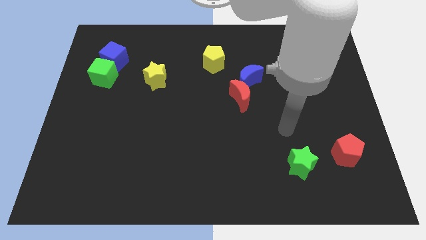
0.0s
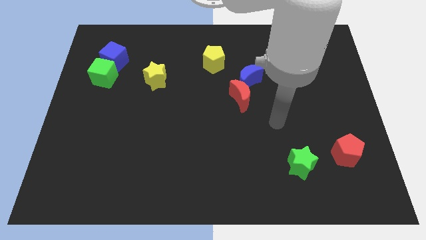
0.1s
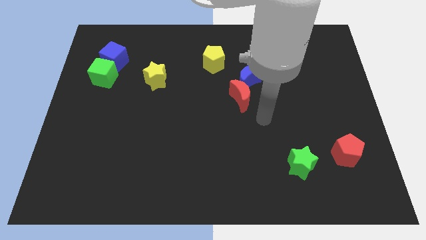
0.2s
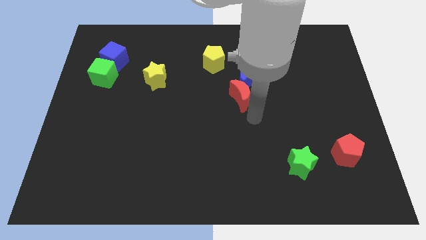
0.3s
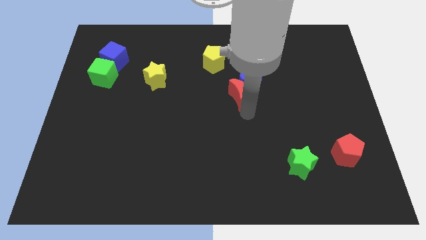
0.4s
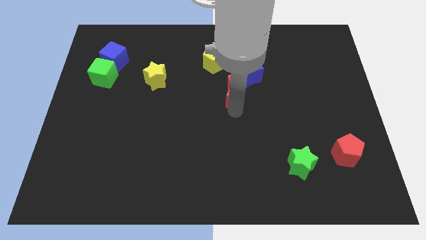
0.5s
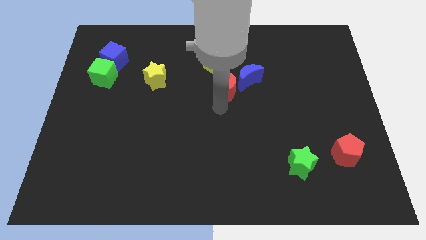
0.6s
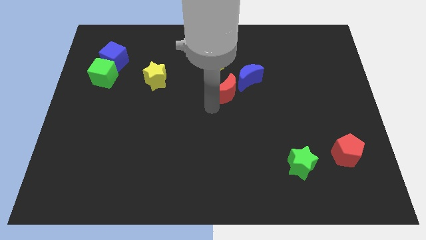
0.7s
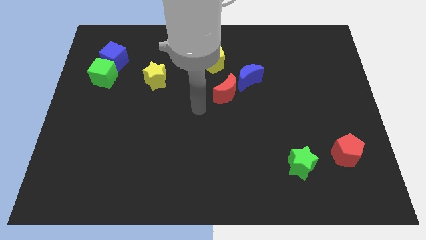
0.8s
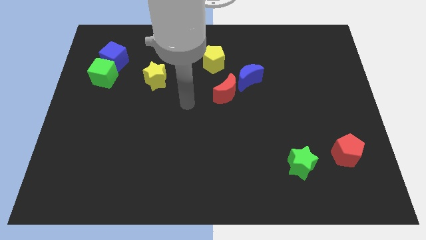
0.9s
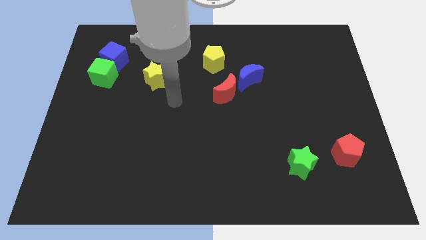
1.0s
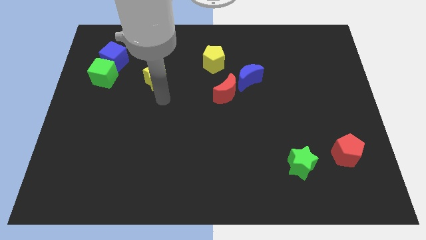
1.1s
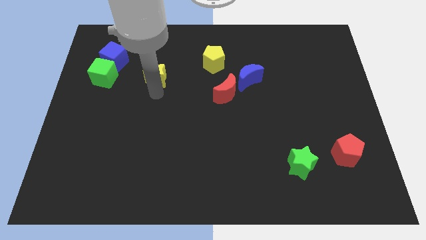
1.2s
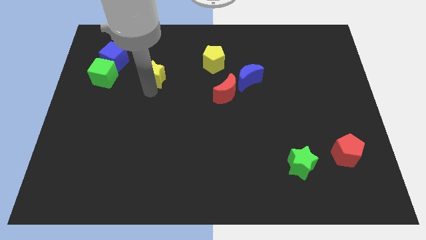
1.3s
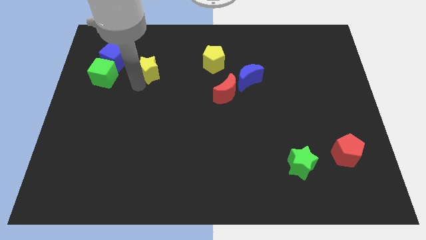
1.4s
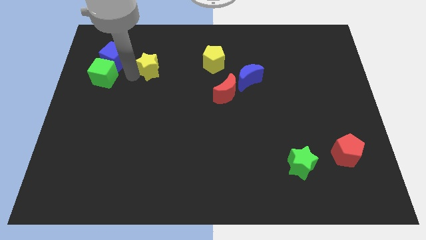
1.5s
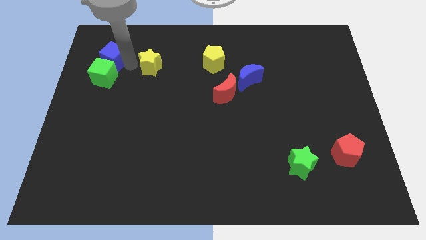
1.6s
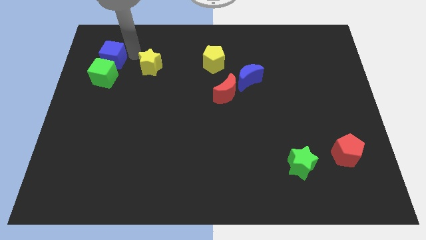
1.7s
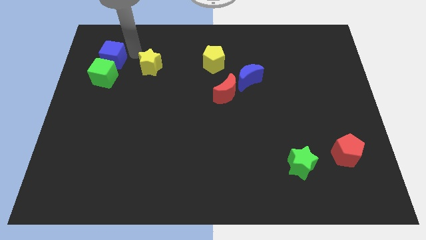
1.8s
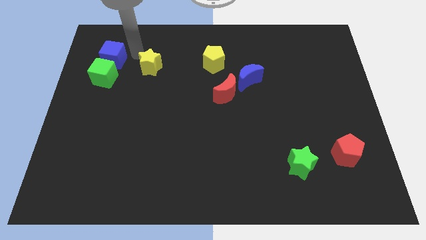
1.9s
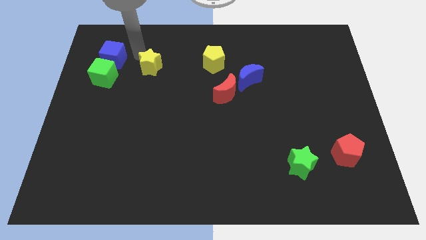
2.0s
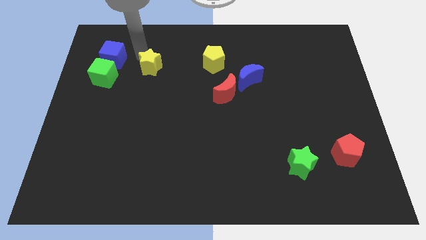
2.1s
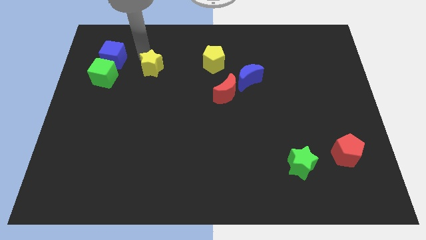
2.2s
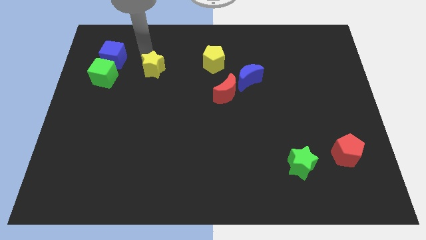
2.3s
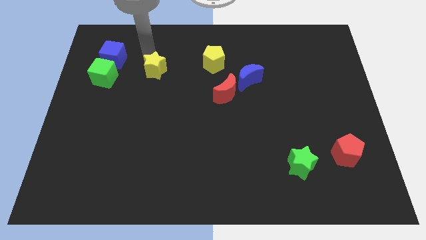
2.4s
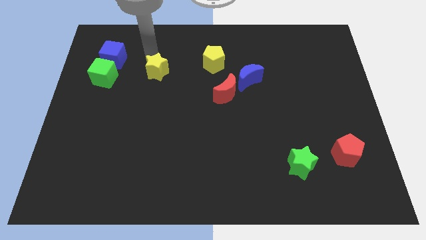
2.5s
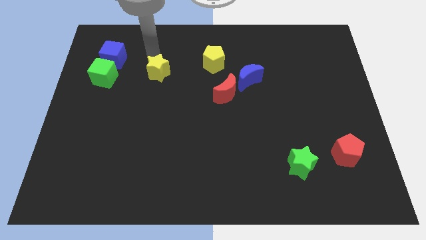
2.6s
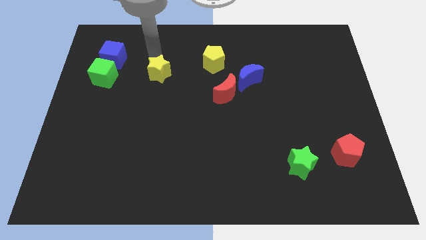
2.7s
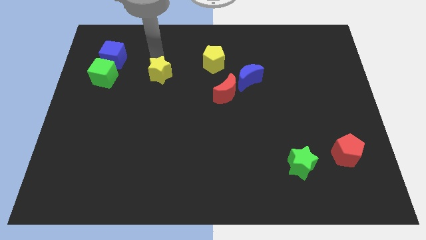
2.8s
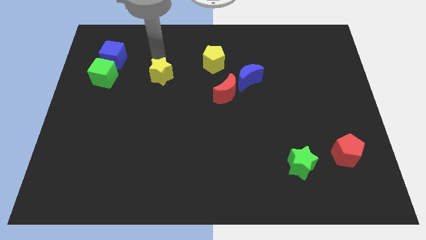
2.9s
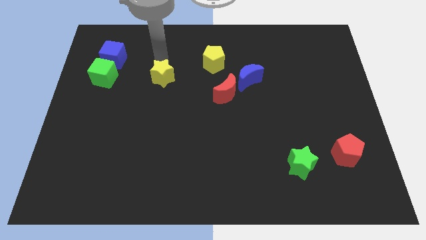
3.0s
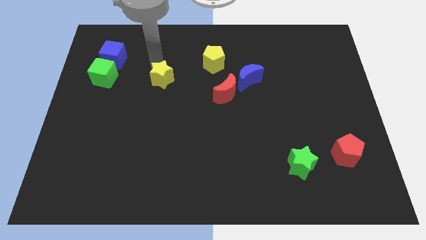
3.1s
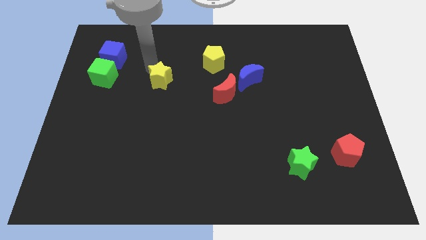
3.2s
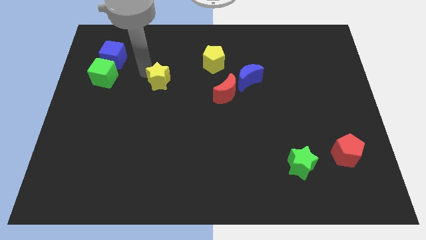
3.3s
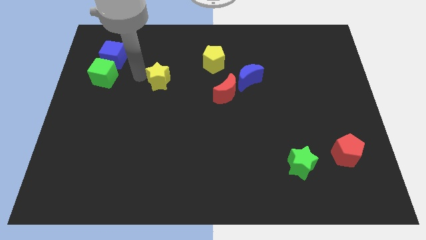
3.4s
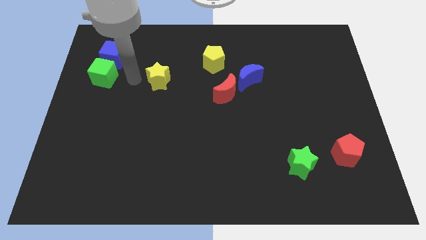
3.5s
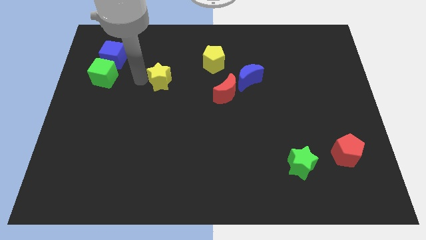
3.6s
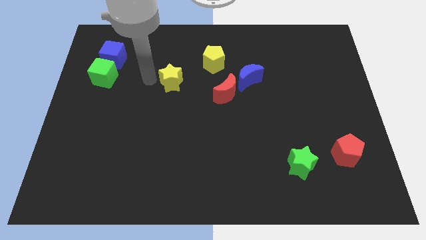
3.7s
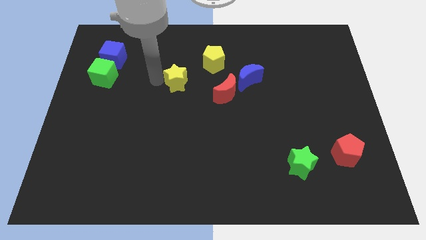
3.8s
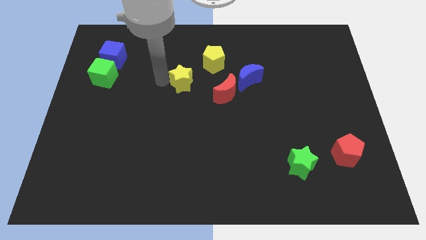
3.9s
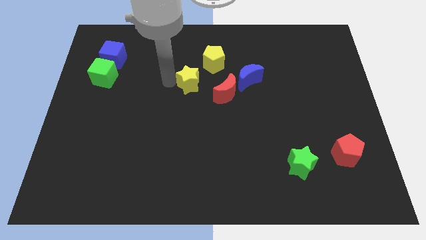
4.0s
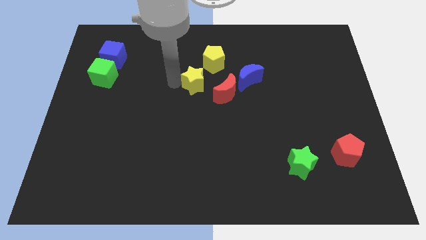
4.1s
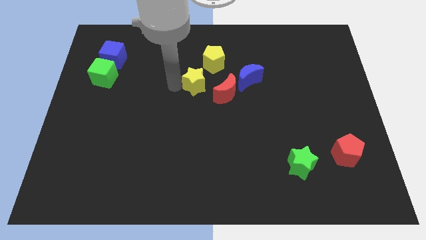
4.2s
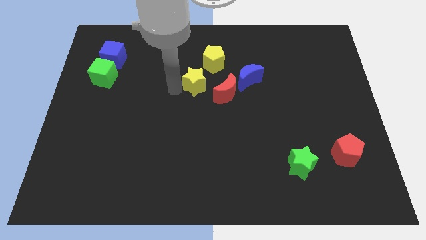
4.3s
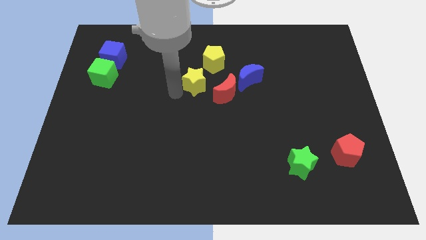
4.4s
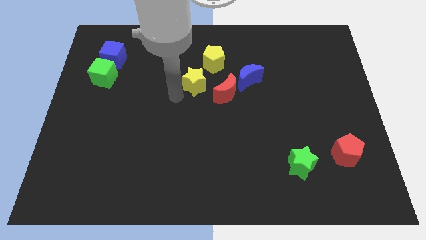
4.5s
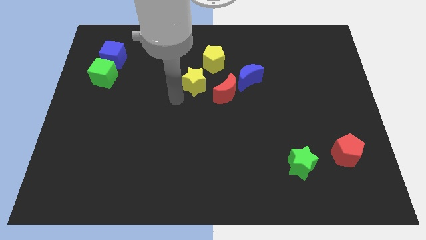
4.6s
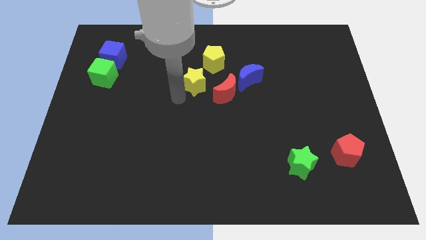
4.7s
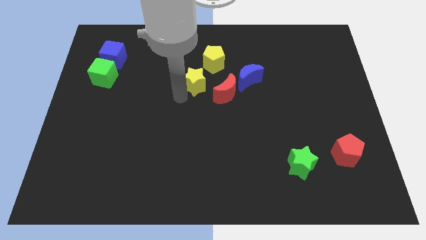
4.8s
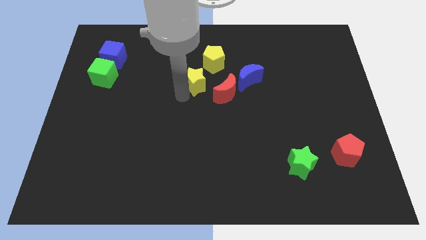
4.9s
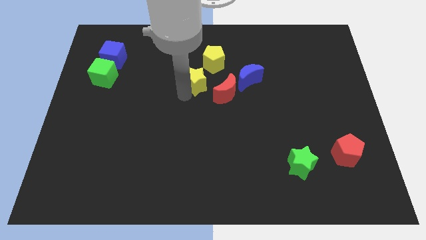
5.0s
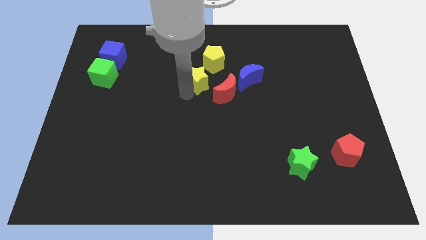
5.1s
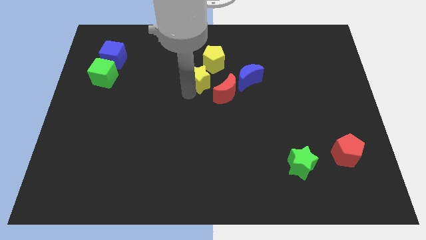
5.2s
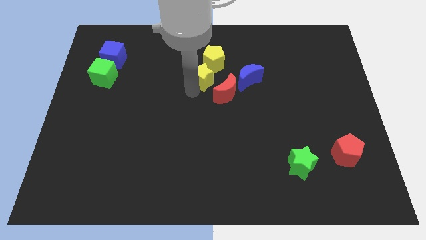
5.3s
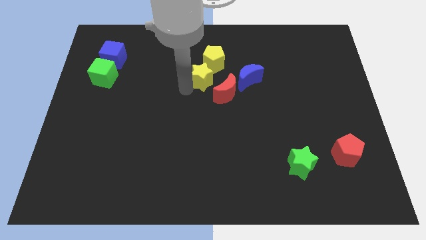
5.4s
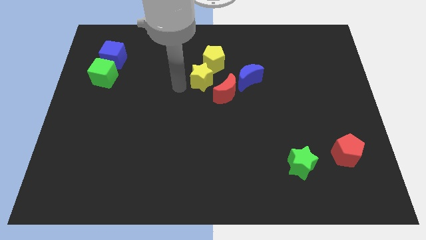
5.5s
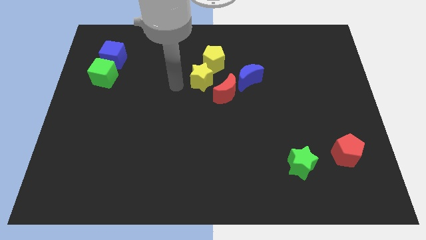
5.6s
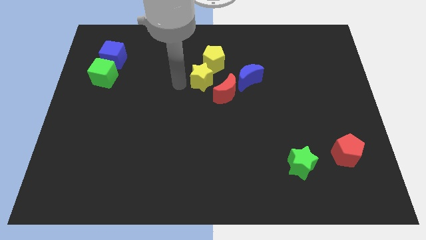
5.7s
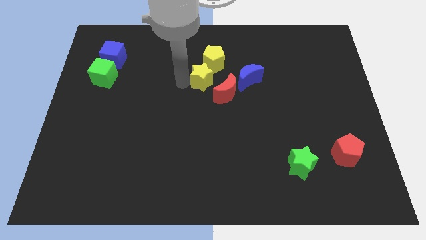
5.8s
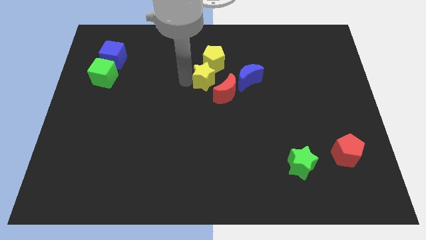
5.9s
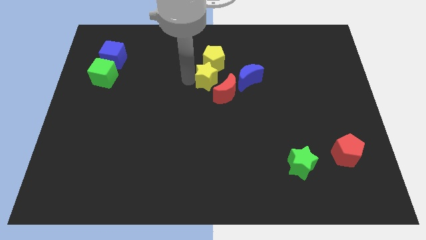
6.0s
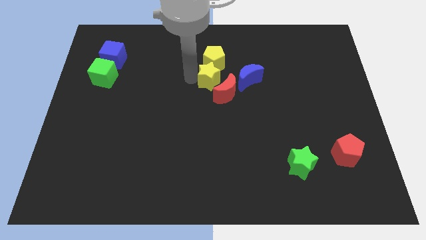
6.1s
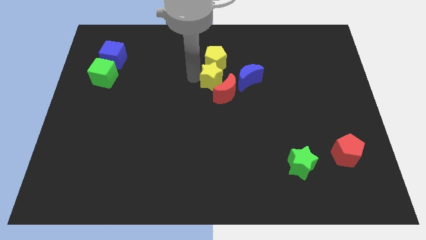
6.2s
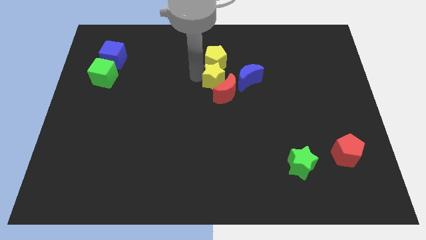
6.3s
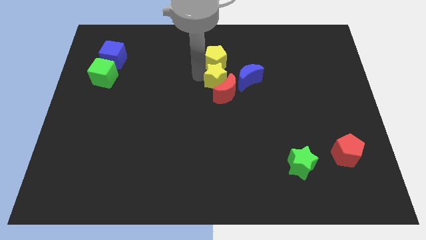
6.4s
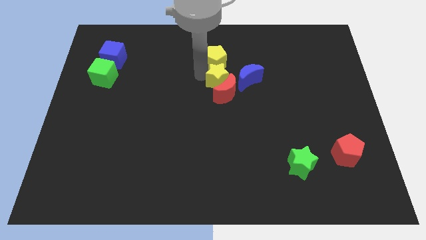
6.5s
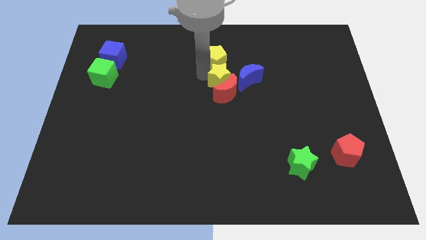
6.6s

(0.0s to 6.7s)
move the yellow star to the top right side of the red moon

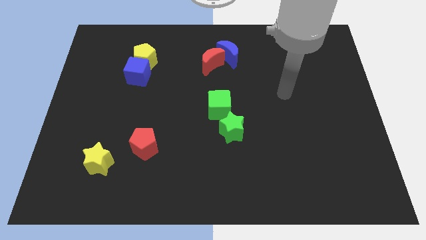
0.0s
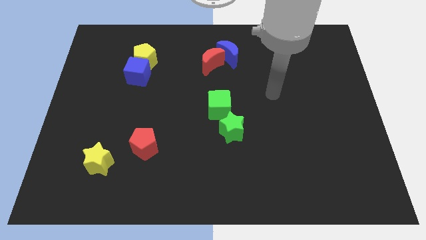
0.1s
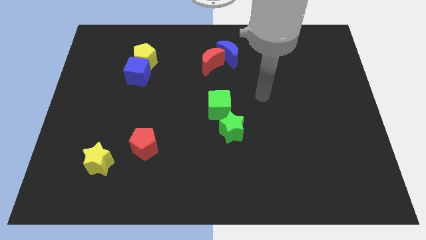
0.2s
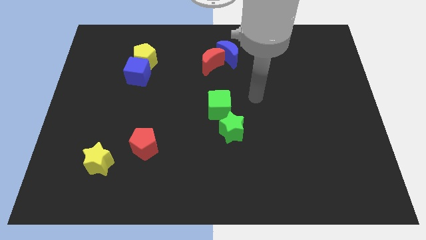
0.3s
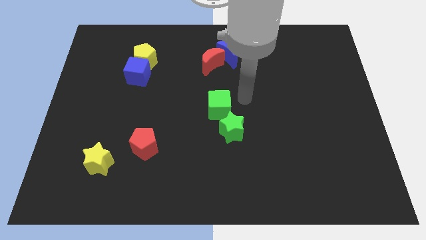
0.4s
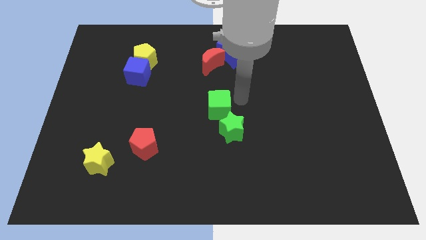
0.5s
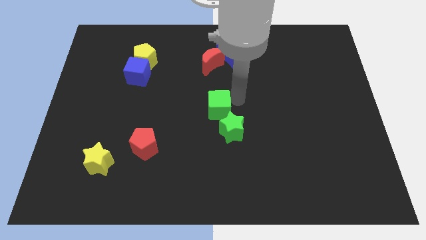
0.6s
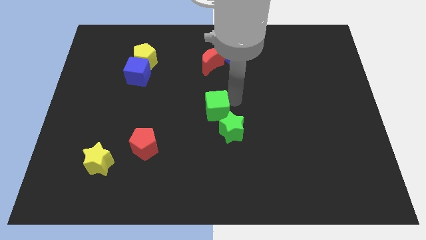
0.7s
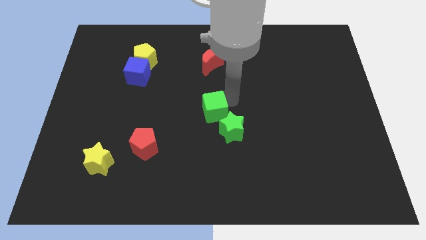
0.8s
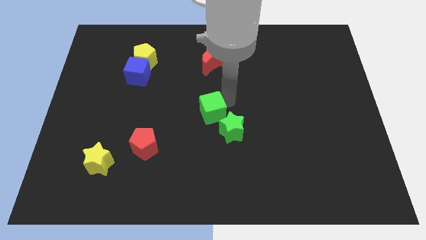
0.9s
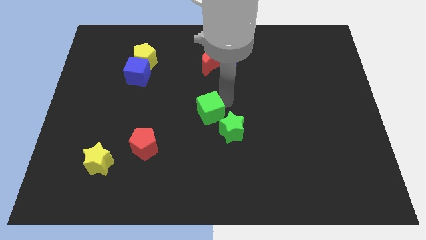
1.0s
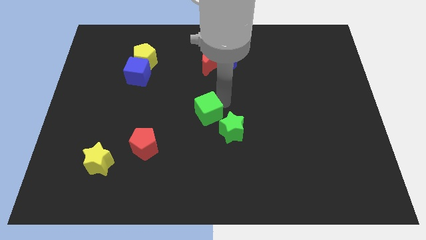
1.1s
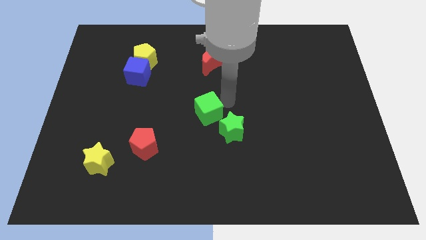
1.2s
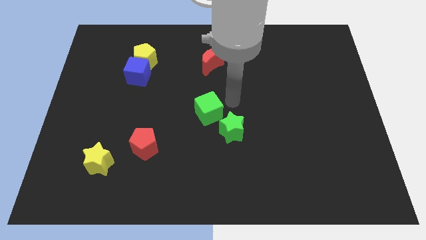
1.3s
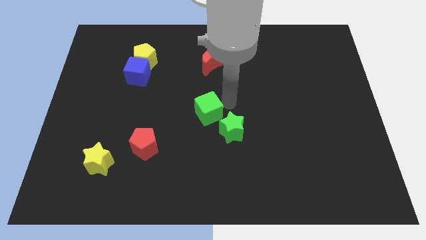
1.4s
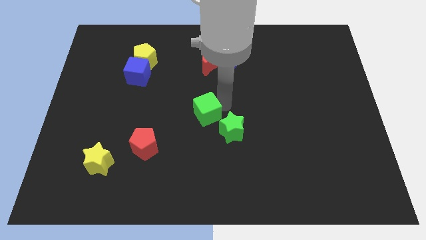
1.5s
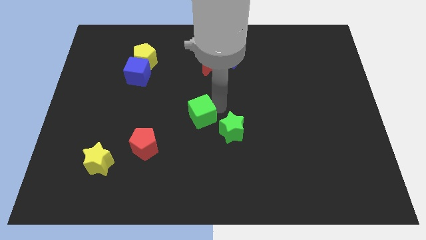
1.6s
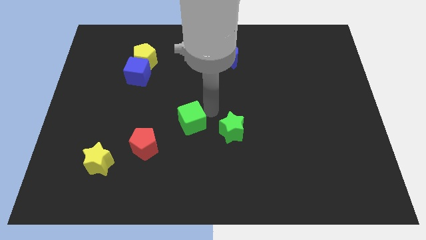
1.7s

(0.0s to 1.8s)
put the green cube to the top right side of the red pentagon
